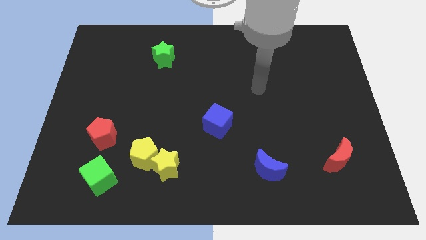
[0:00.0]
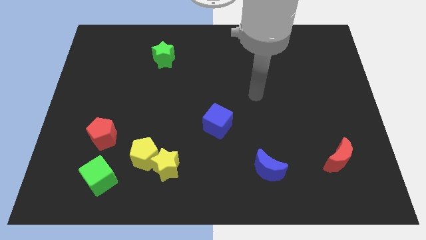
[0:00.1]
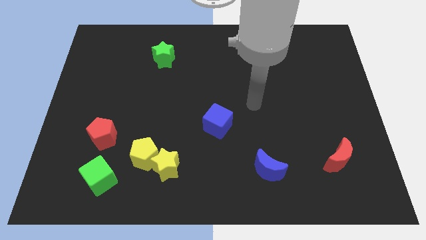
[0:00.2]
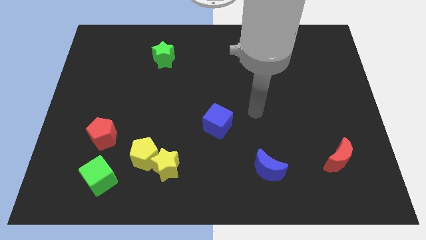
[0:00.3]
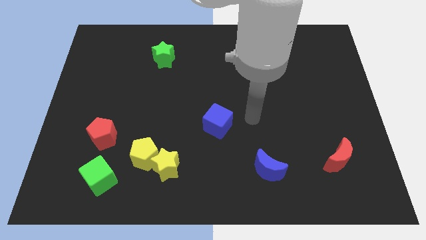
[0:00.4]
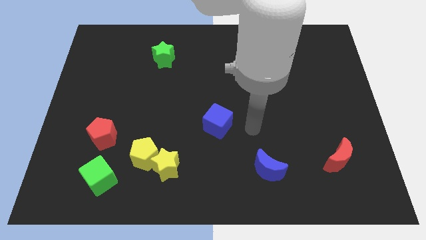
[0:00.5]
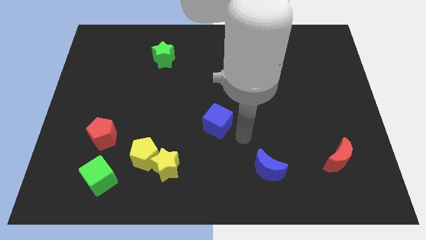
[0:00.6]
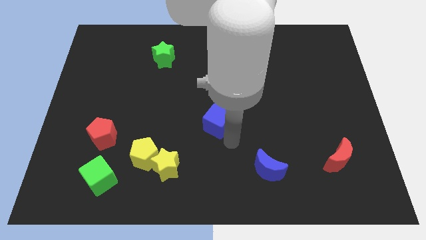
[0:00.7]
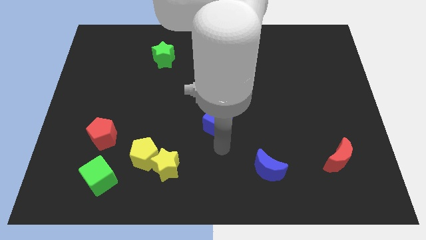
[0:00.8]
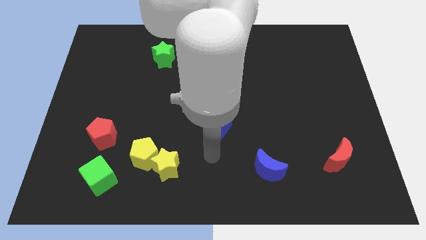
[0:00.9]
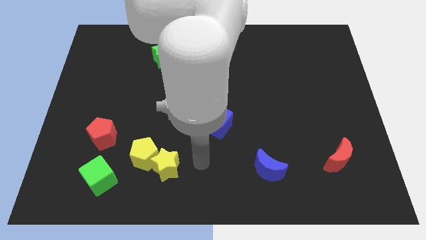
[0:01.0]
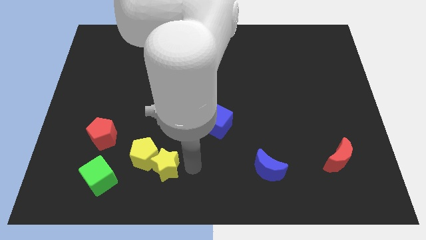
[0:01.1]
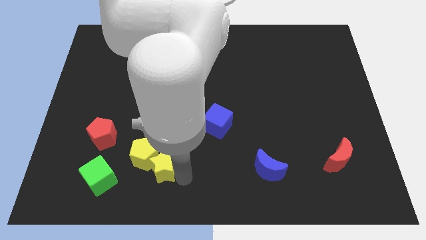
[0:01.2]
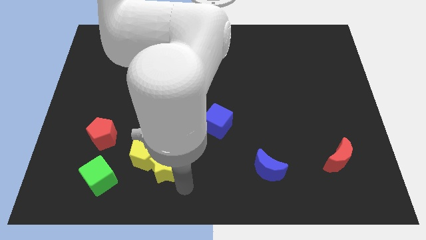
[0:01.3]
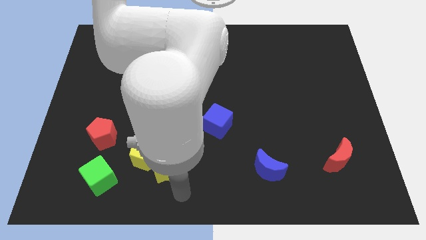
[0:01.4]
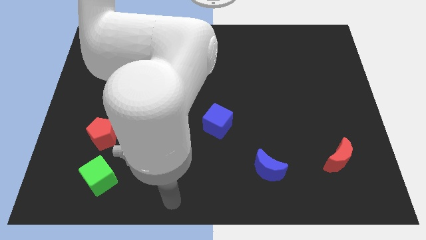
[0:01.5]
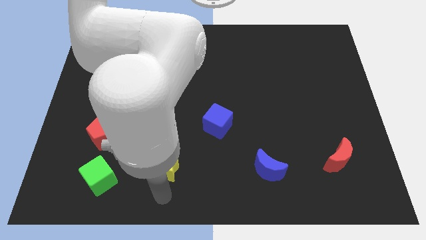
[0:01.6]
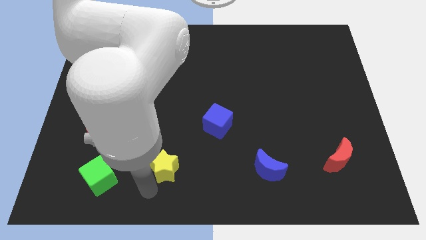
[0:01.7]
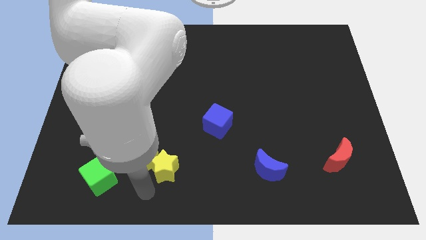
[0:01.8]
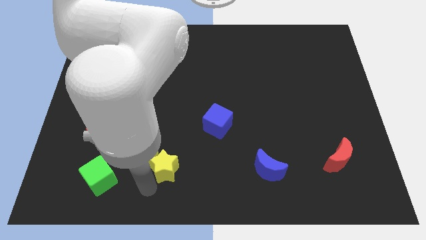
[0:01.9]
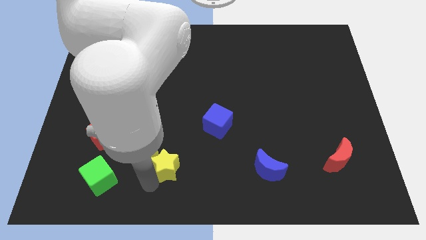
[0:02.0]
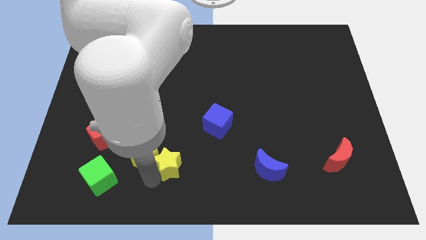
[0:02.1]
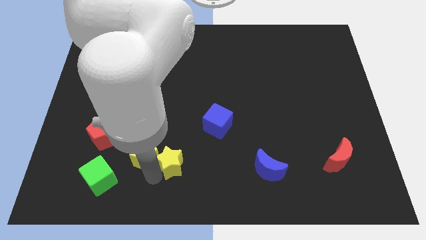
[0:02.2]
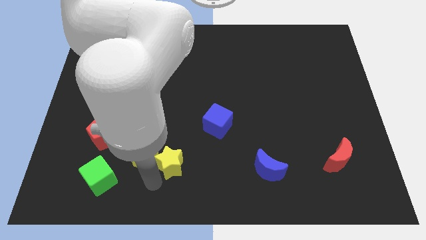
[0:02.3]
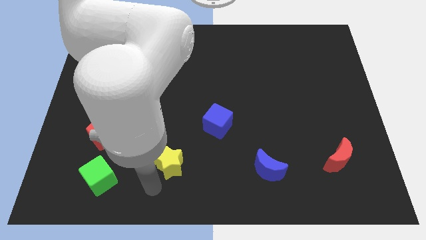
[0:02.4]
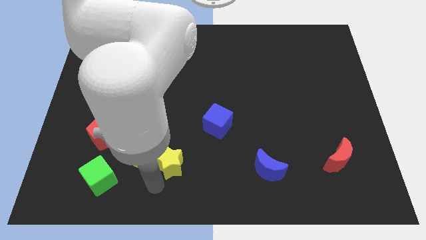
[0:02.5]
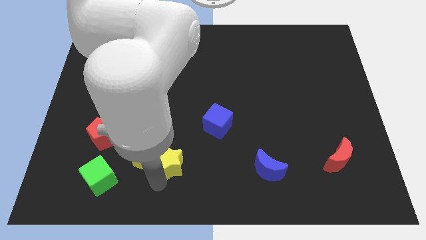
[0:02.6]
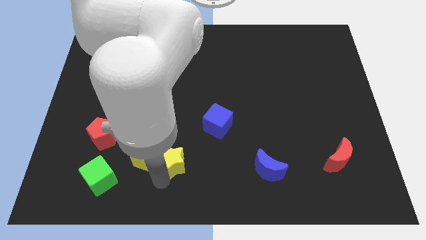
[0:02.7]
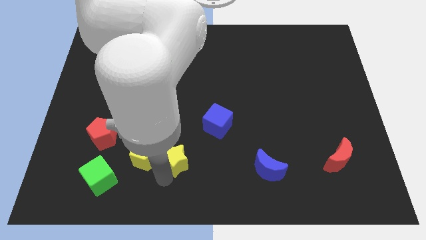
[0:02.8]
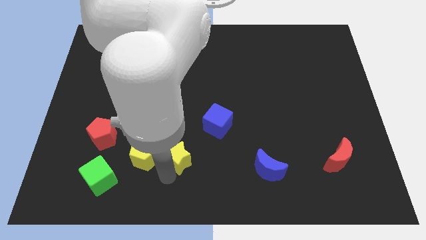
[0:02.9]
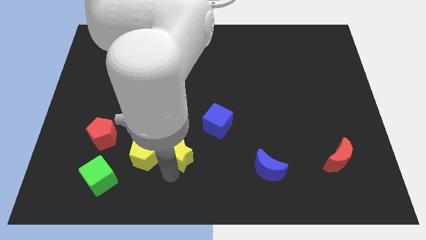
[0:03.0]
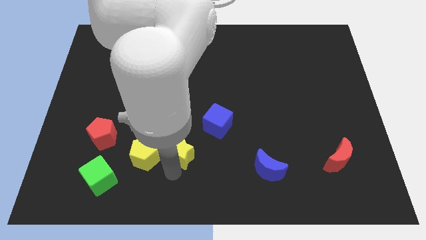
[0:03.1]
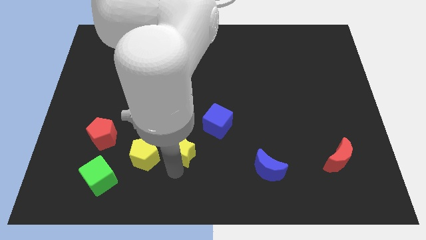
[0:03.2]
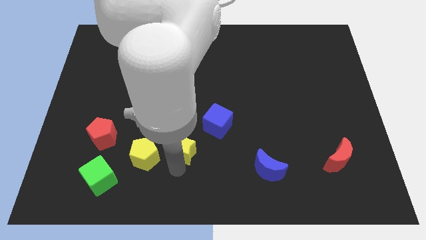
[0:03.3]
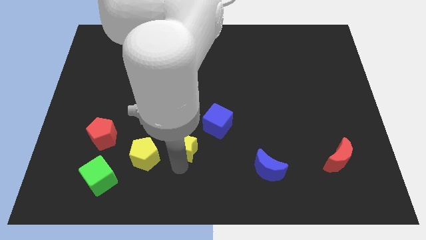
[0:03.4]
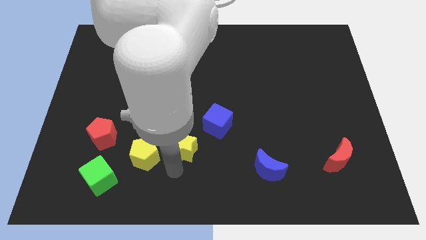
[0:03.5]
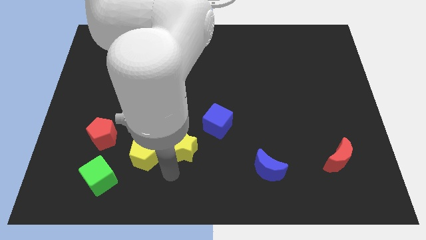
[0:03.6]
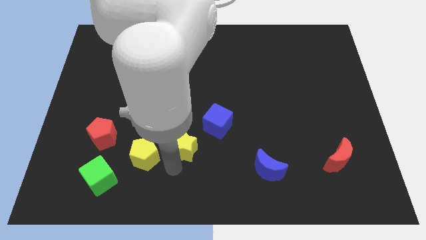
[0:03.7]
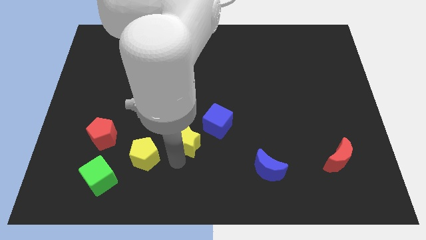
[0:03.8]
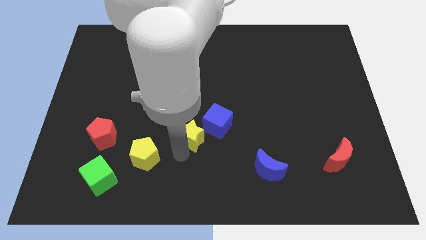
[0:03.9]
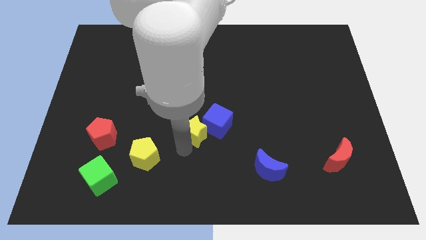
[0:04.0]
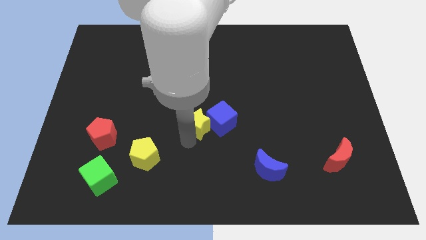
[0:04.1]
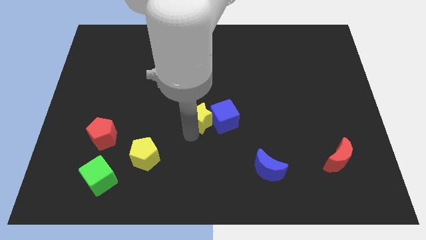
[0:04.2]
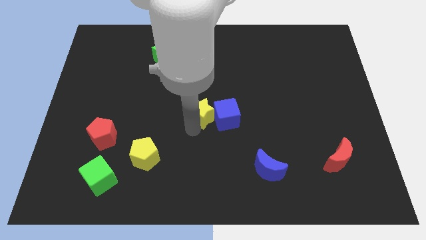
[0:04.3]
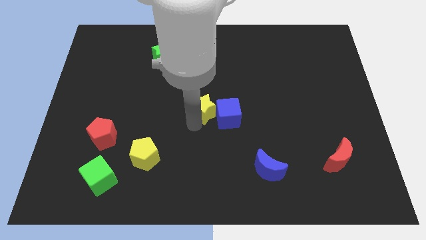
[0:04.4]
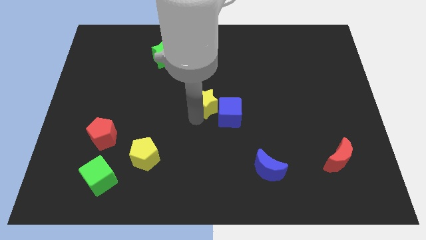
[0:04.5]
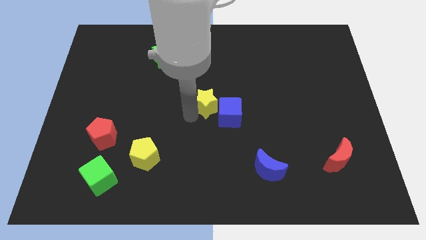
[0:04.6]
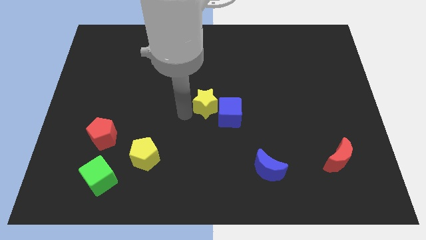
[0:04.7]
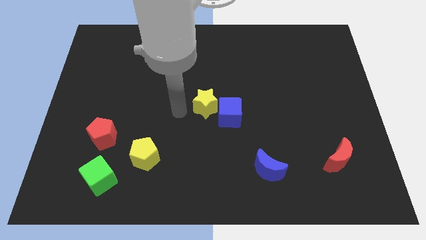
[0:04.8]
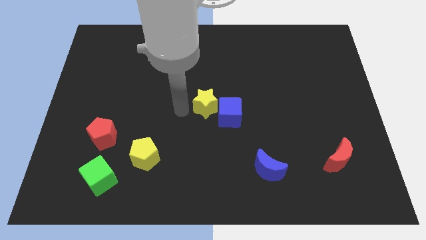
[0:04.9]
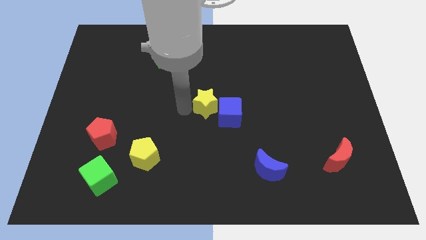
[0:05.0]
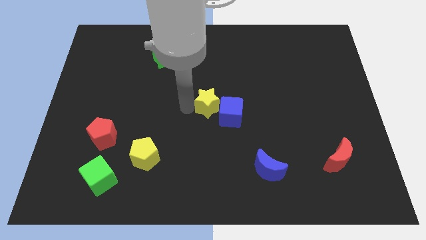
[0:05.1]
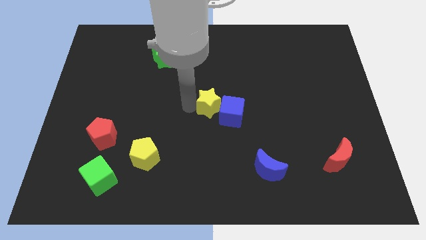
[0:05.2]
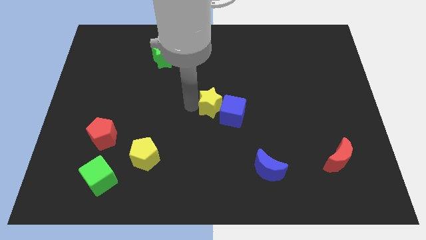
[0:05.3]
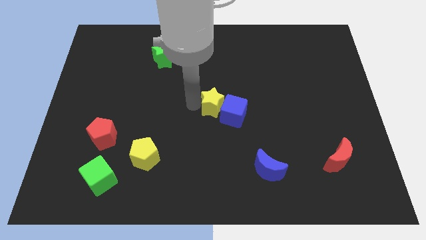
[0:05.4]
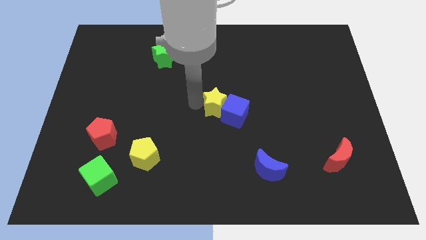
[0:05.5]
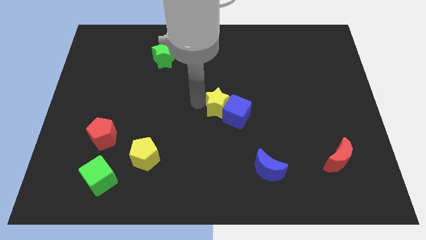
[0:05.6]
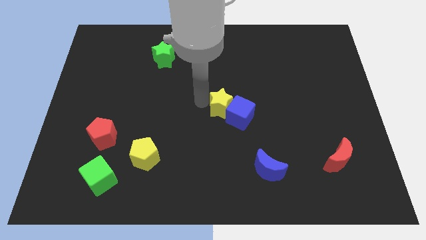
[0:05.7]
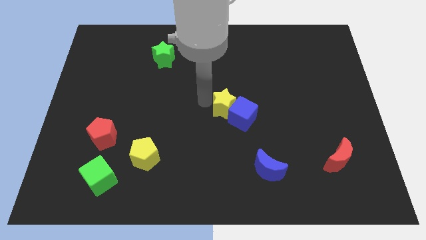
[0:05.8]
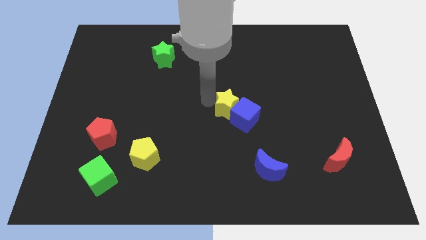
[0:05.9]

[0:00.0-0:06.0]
push the yellow star up and to the right

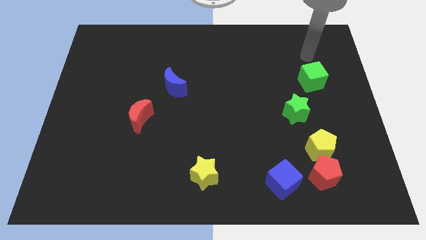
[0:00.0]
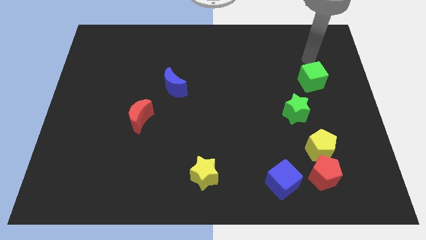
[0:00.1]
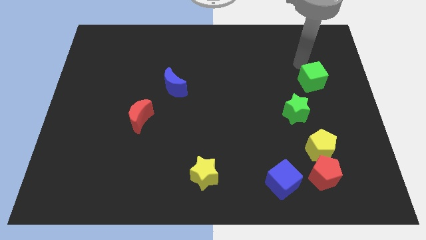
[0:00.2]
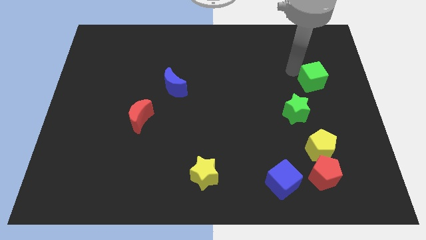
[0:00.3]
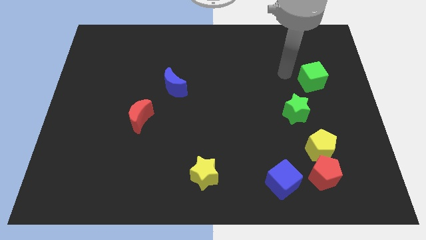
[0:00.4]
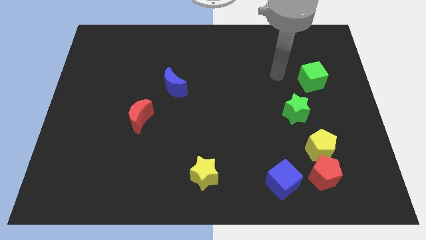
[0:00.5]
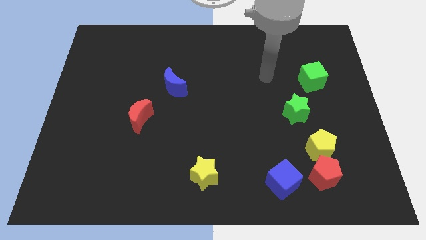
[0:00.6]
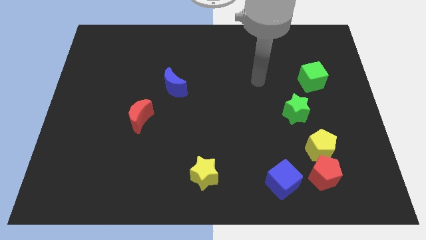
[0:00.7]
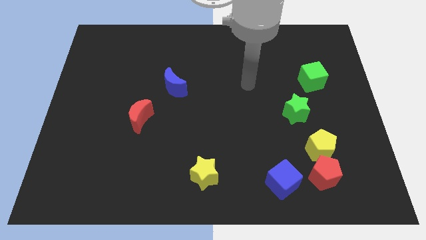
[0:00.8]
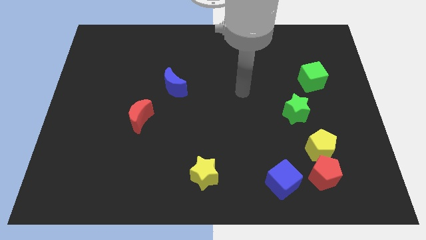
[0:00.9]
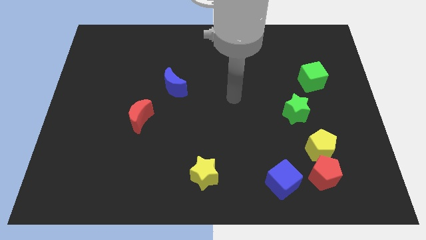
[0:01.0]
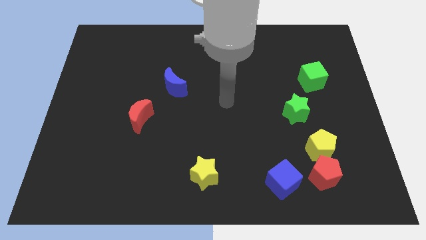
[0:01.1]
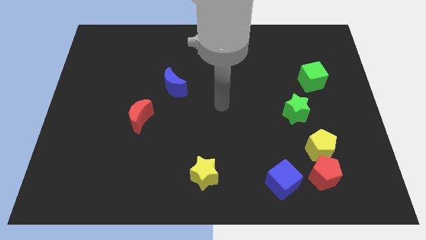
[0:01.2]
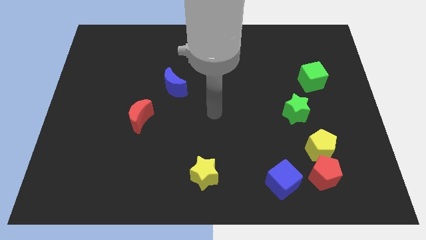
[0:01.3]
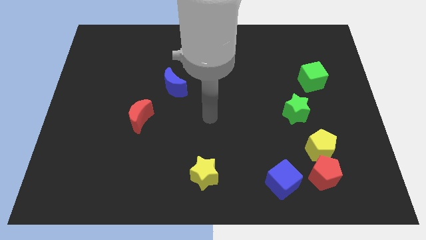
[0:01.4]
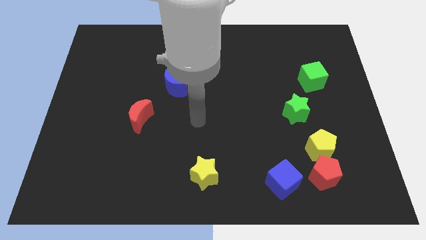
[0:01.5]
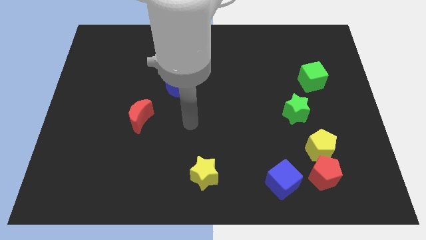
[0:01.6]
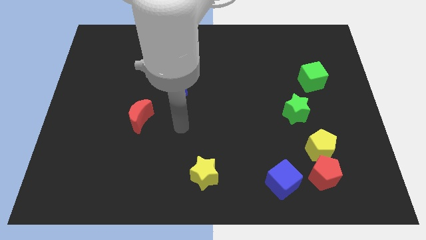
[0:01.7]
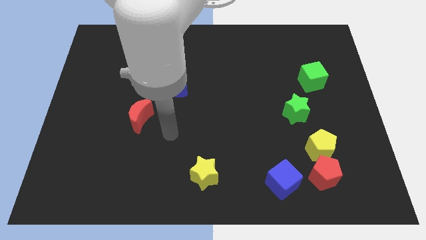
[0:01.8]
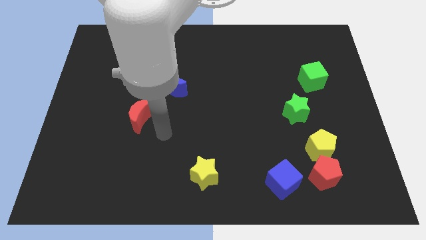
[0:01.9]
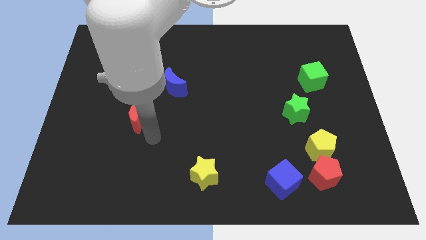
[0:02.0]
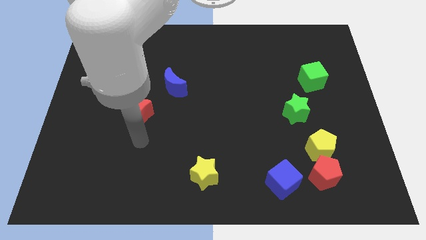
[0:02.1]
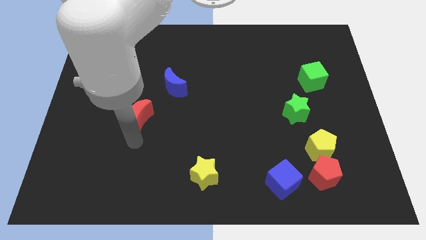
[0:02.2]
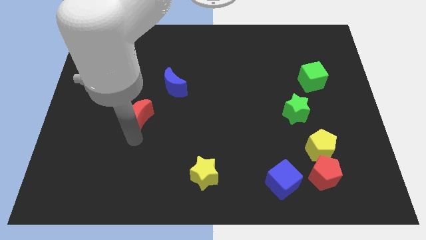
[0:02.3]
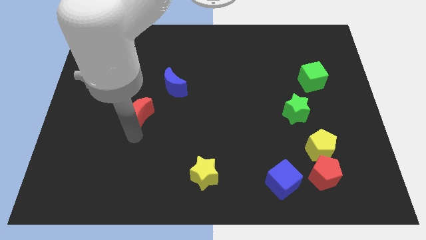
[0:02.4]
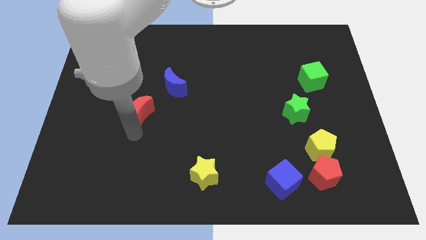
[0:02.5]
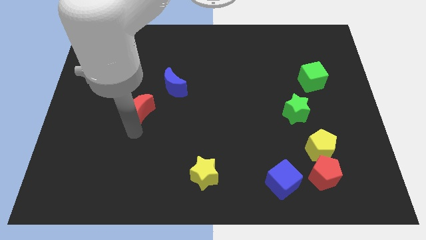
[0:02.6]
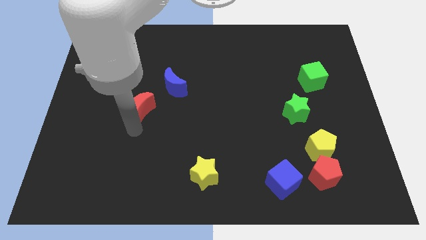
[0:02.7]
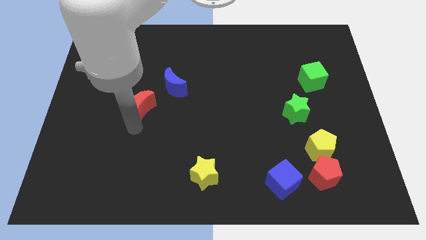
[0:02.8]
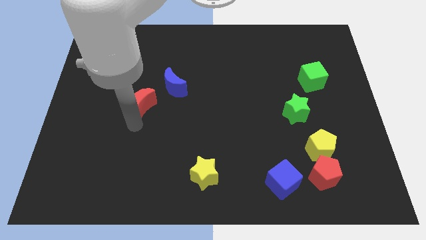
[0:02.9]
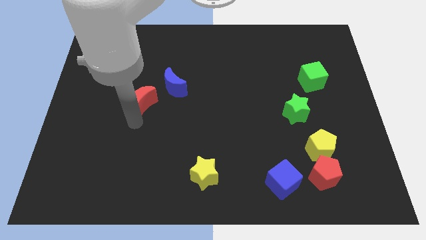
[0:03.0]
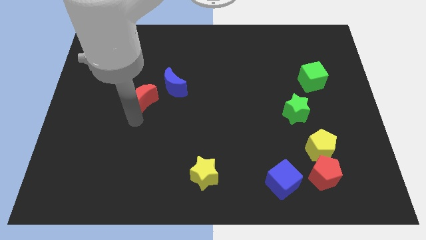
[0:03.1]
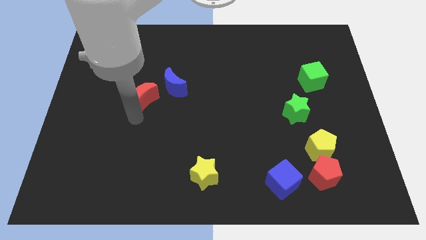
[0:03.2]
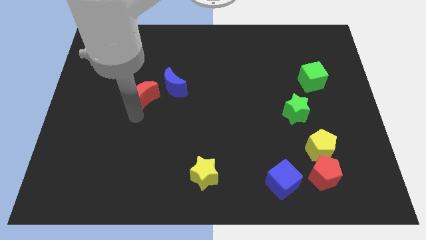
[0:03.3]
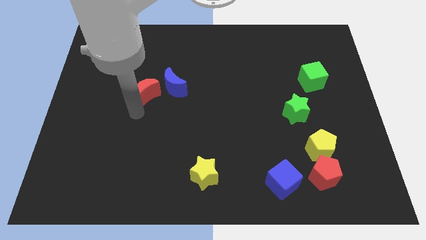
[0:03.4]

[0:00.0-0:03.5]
move the red moon a little up
